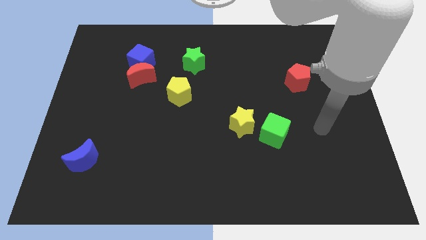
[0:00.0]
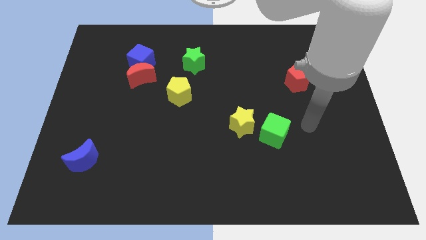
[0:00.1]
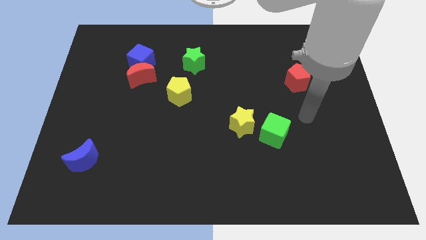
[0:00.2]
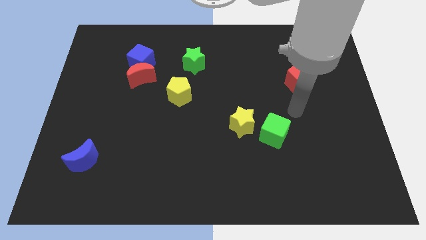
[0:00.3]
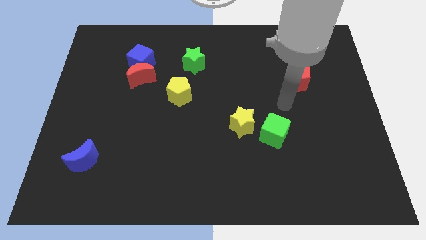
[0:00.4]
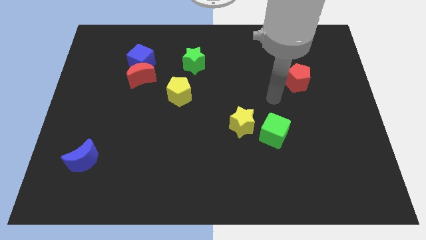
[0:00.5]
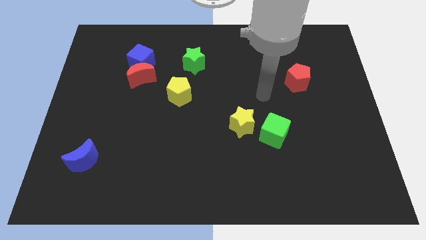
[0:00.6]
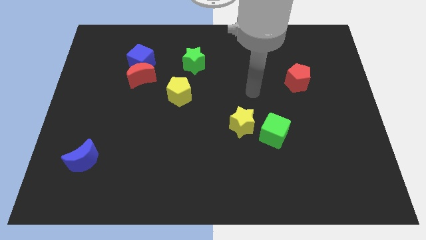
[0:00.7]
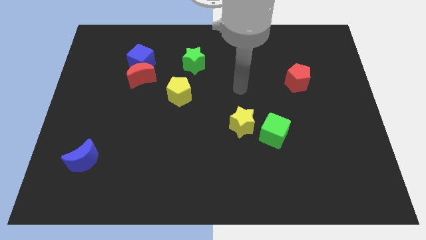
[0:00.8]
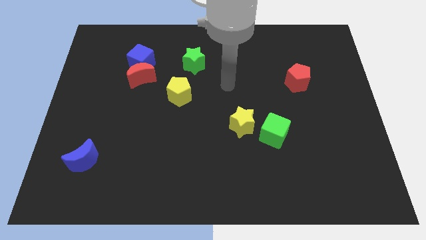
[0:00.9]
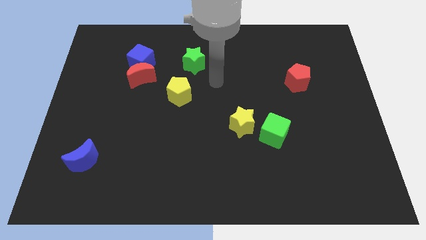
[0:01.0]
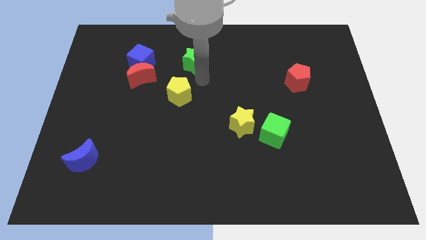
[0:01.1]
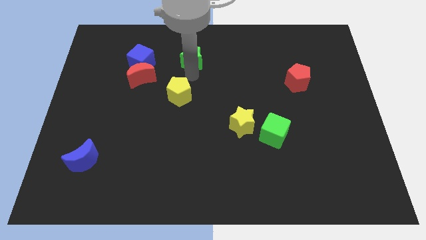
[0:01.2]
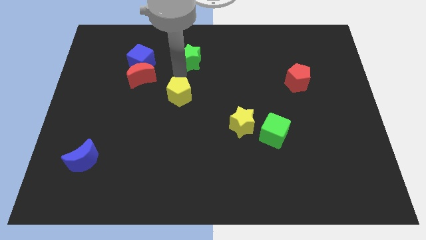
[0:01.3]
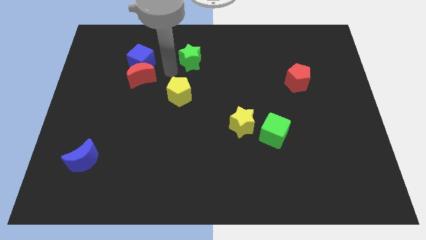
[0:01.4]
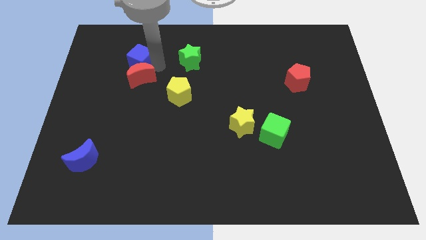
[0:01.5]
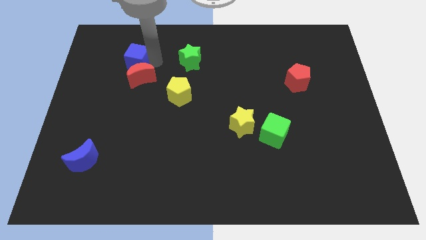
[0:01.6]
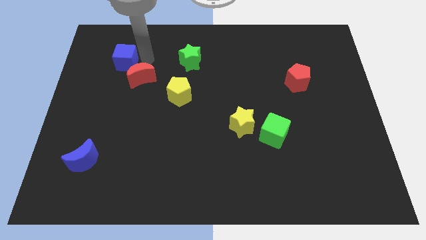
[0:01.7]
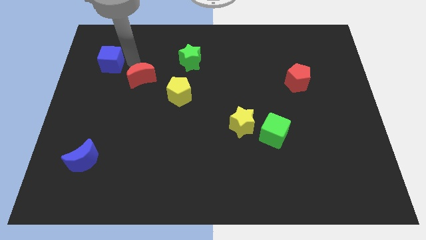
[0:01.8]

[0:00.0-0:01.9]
separate the red moon from the blue cube

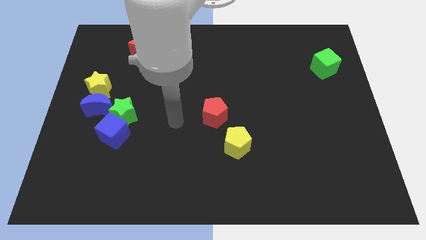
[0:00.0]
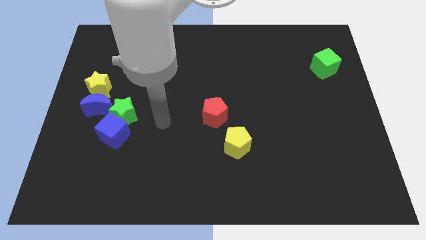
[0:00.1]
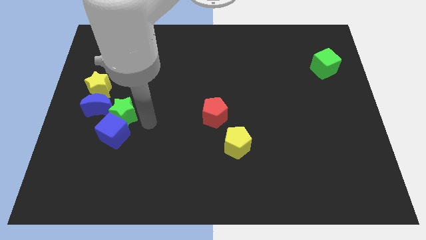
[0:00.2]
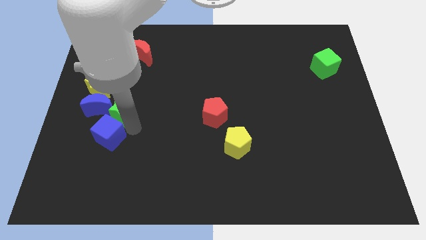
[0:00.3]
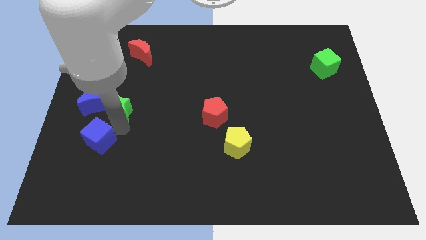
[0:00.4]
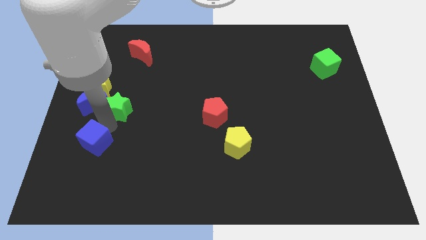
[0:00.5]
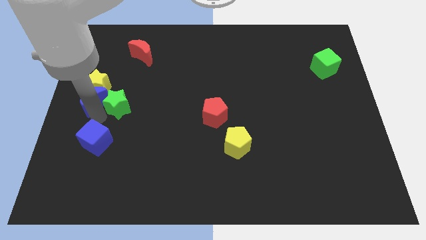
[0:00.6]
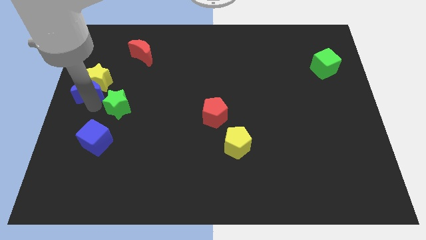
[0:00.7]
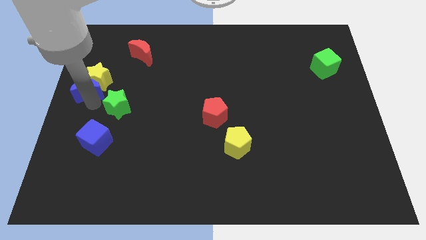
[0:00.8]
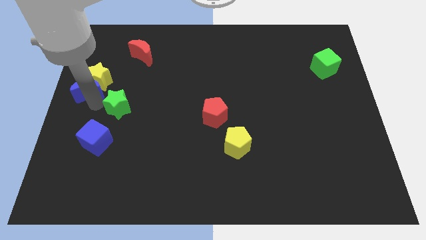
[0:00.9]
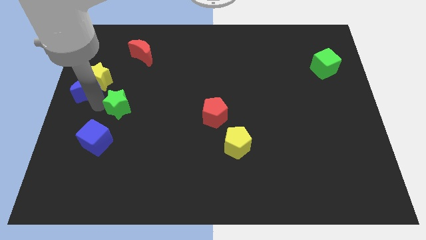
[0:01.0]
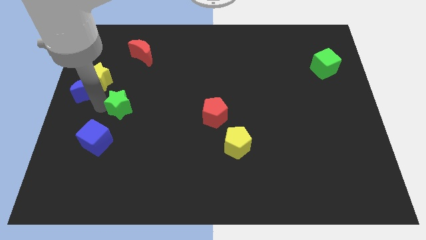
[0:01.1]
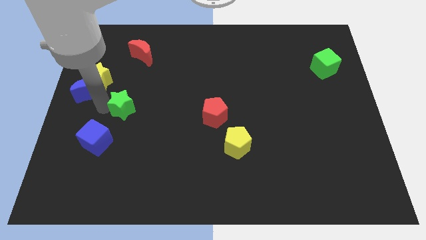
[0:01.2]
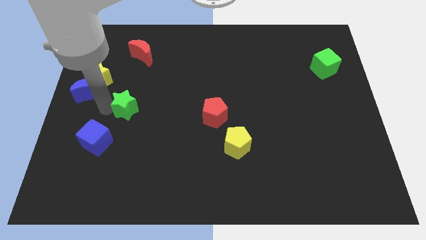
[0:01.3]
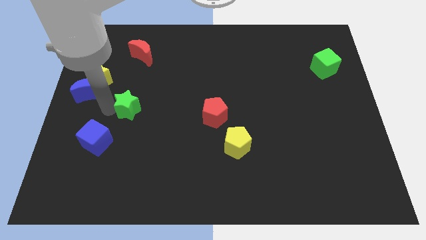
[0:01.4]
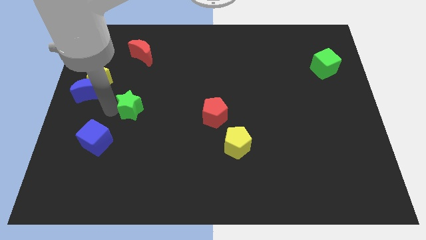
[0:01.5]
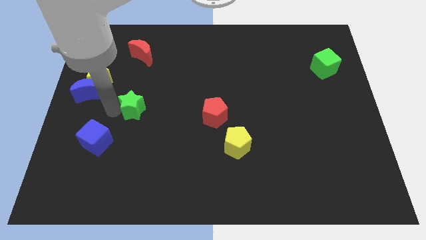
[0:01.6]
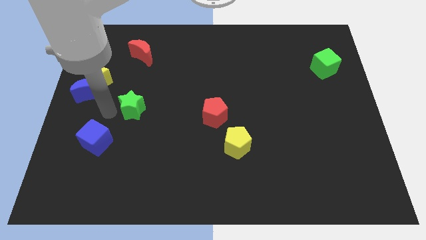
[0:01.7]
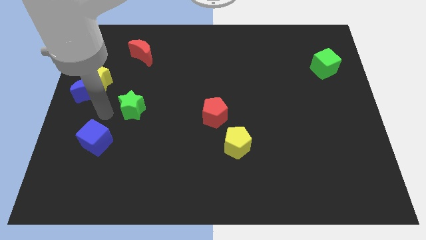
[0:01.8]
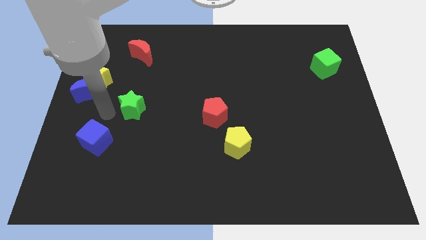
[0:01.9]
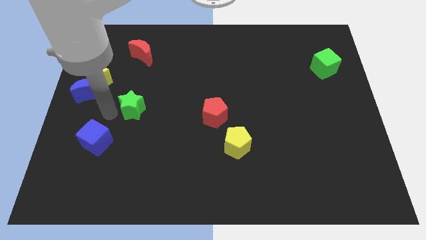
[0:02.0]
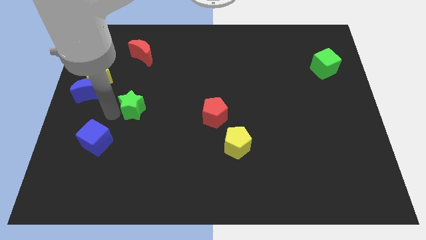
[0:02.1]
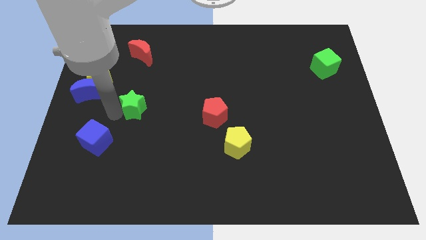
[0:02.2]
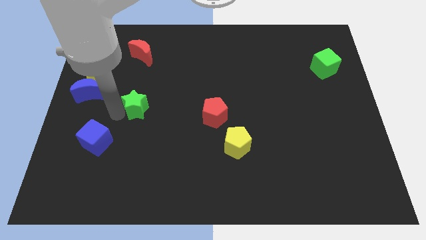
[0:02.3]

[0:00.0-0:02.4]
pull the green star apart from the blue cube and blue moon

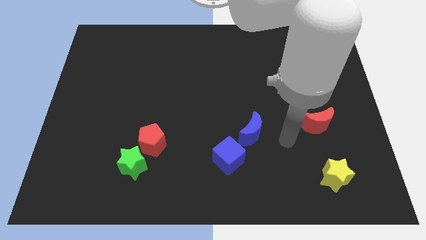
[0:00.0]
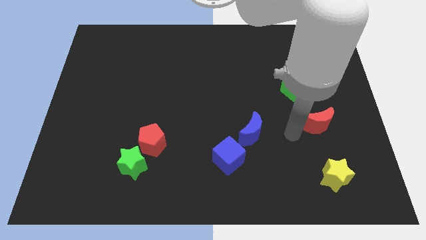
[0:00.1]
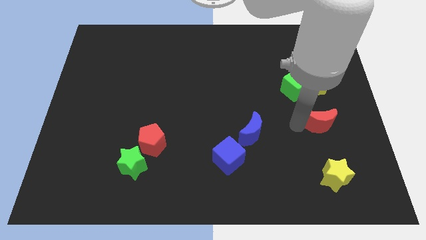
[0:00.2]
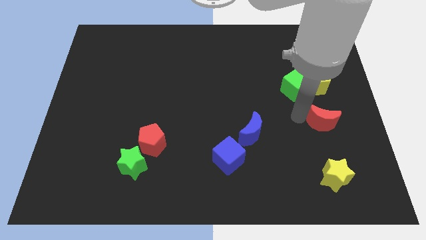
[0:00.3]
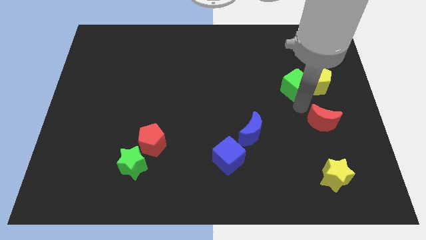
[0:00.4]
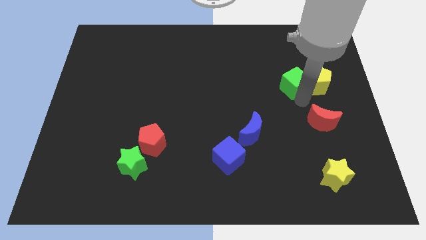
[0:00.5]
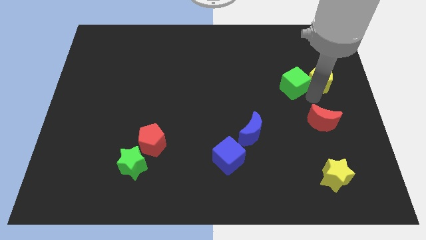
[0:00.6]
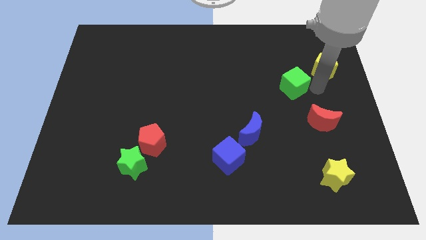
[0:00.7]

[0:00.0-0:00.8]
pull the green cube apart from the yellow pentagon

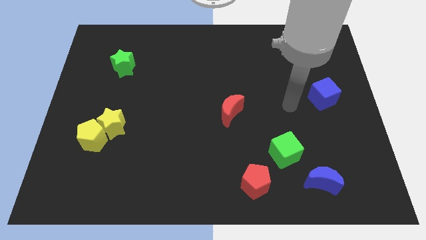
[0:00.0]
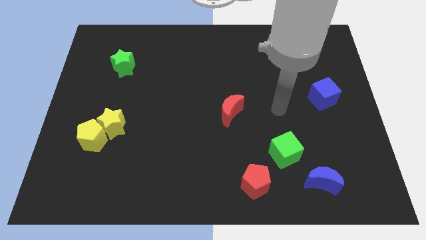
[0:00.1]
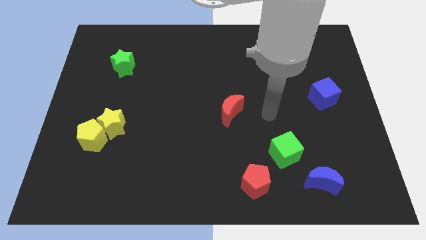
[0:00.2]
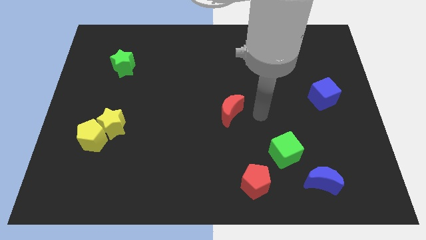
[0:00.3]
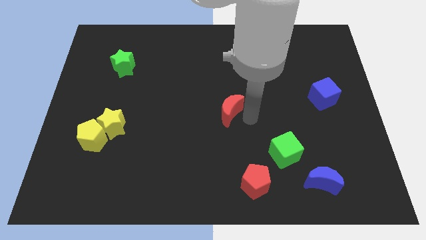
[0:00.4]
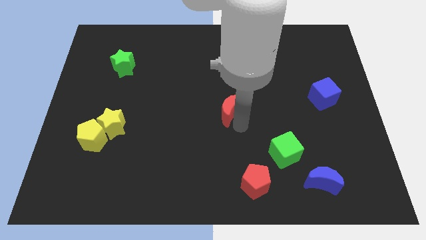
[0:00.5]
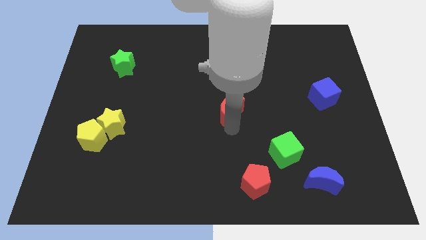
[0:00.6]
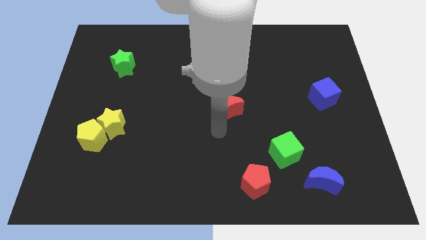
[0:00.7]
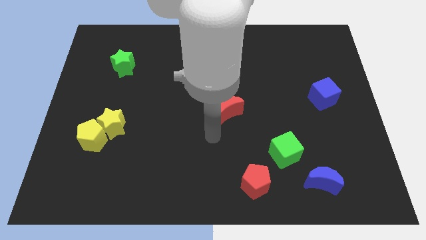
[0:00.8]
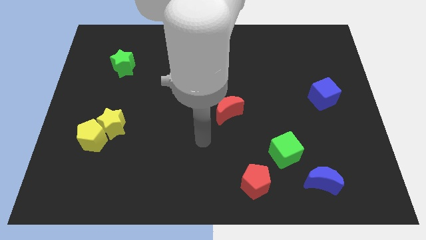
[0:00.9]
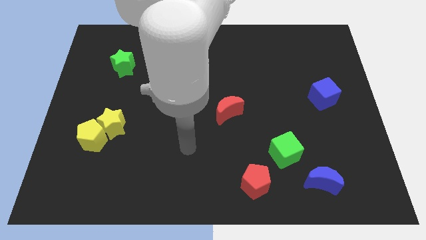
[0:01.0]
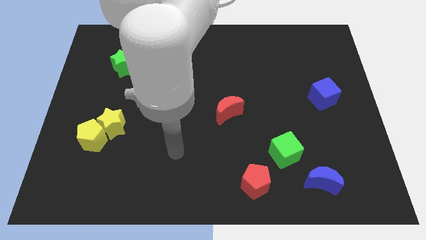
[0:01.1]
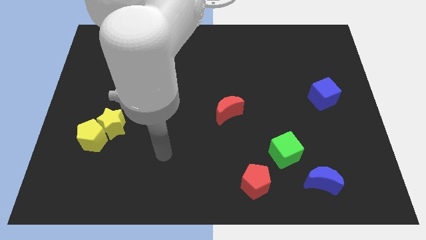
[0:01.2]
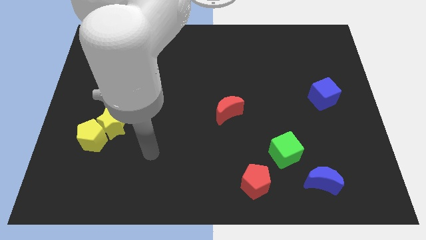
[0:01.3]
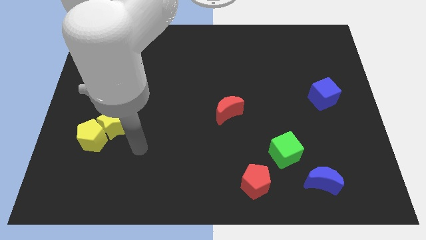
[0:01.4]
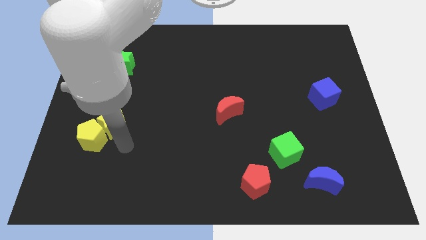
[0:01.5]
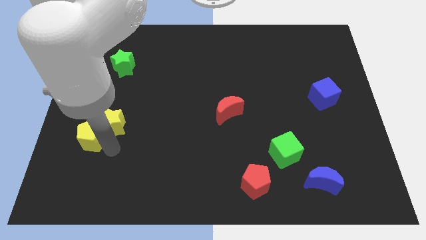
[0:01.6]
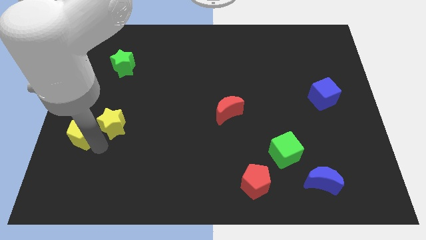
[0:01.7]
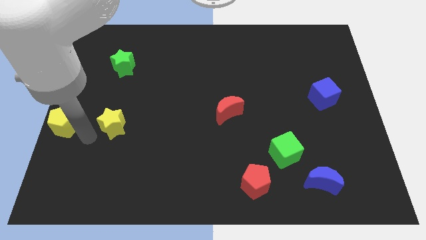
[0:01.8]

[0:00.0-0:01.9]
separate the yellow star from the yellow pentagon

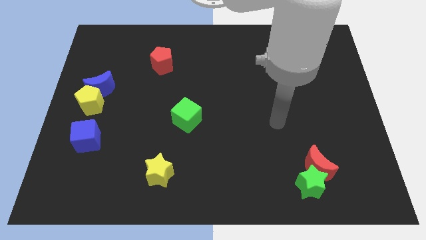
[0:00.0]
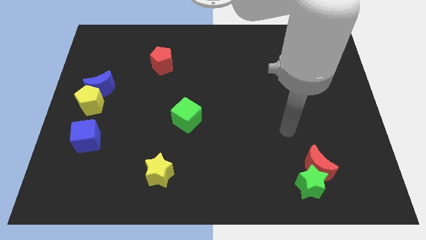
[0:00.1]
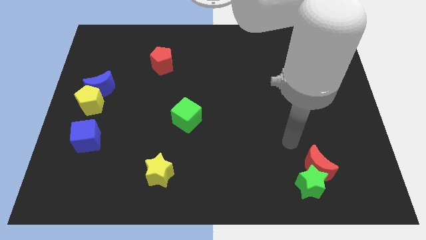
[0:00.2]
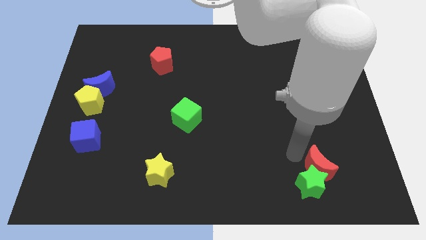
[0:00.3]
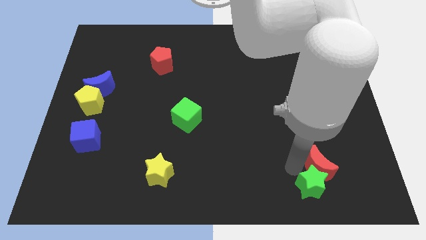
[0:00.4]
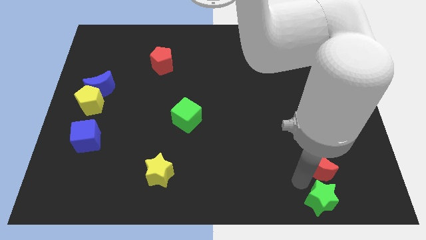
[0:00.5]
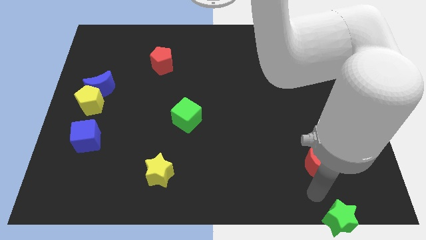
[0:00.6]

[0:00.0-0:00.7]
separate the red moon from the green star

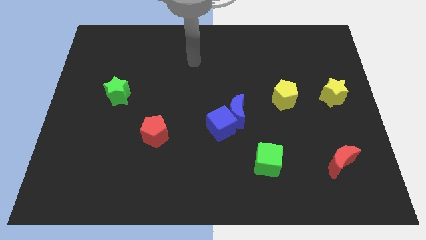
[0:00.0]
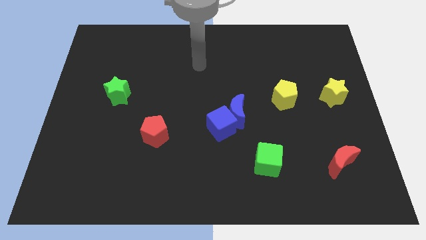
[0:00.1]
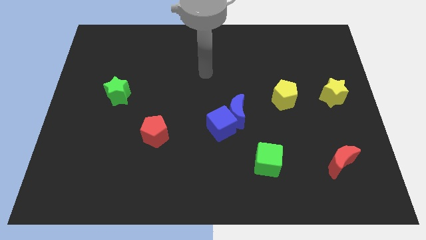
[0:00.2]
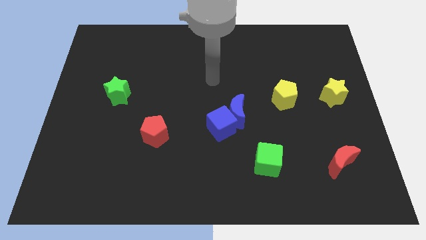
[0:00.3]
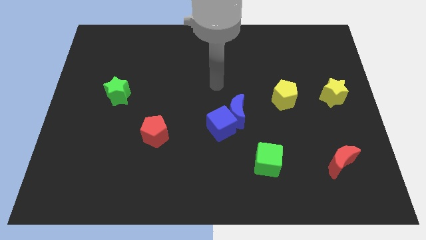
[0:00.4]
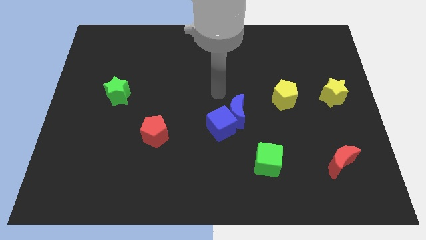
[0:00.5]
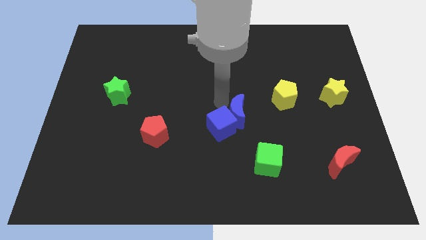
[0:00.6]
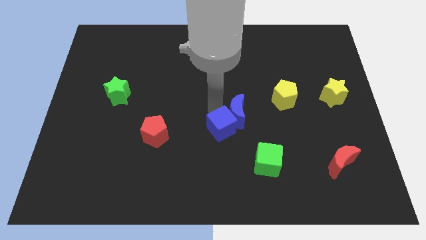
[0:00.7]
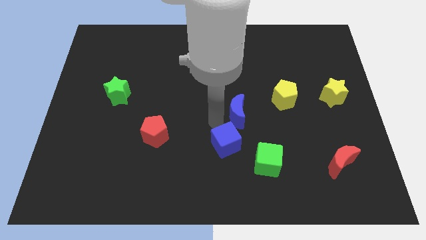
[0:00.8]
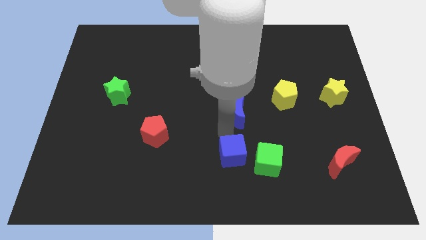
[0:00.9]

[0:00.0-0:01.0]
pull the blue moon apart from the blue cube

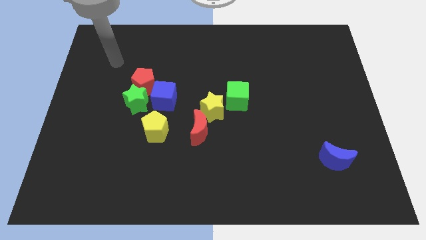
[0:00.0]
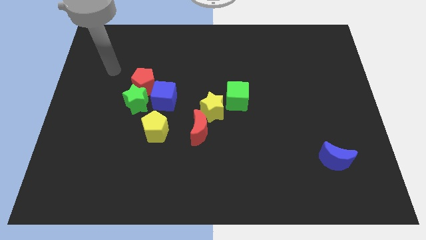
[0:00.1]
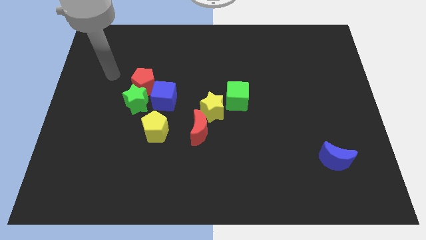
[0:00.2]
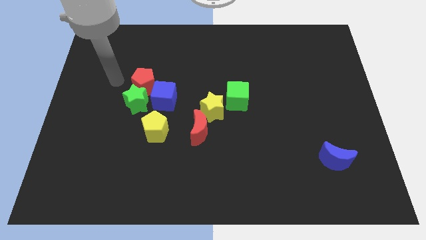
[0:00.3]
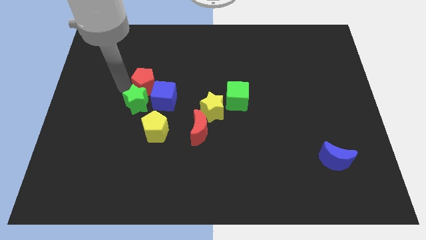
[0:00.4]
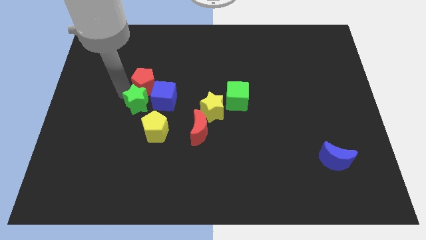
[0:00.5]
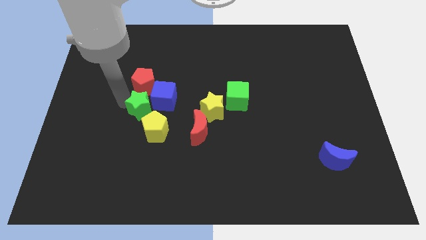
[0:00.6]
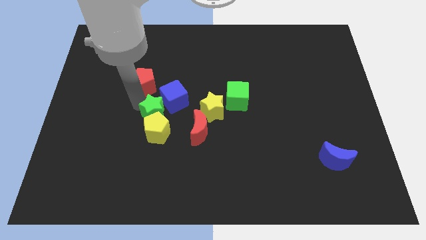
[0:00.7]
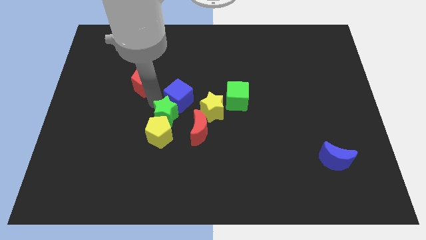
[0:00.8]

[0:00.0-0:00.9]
pull the red pentagon apart from the green star and blue cube
